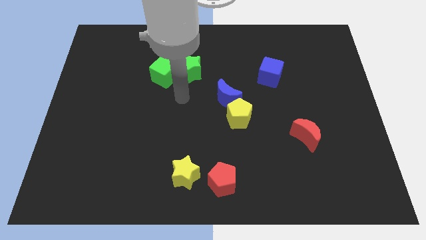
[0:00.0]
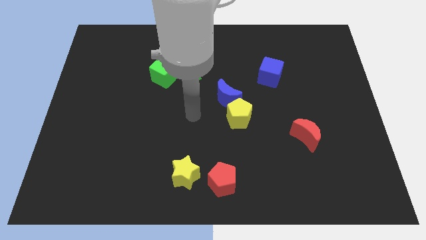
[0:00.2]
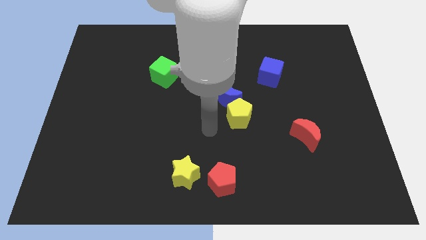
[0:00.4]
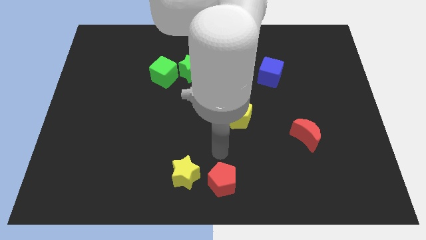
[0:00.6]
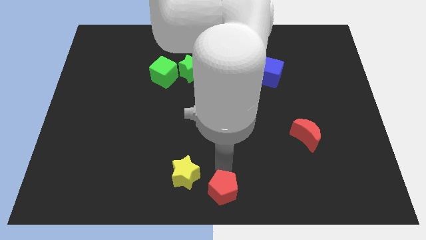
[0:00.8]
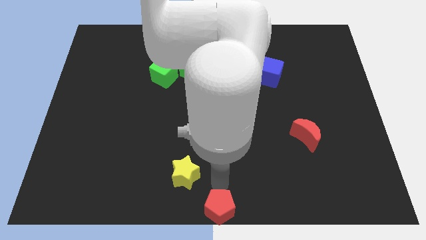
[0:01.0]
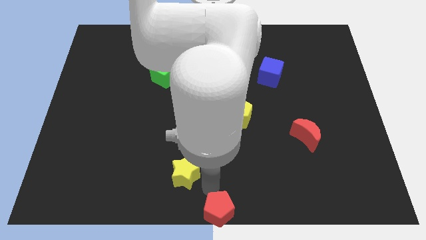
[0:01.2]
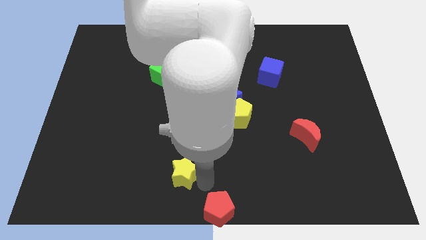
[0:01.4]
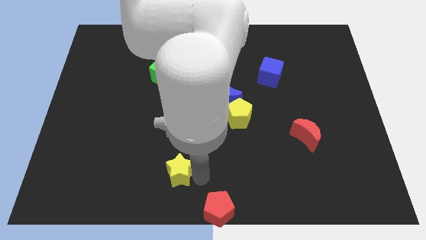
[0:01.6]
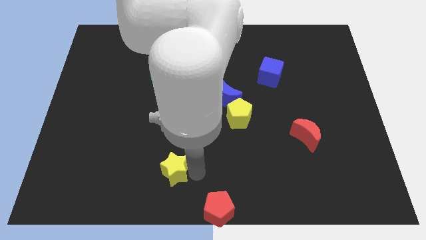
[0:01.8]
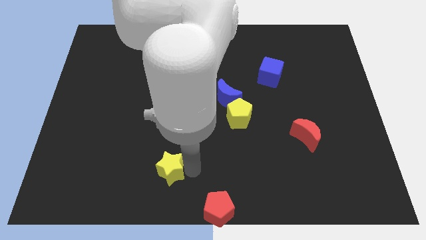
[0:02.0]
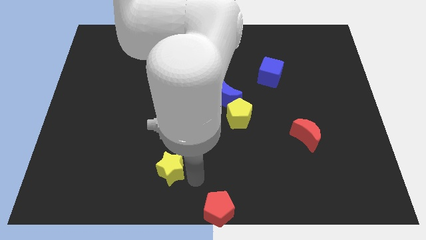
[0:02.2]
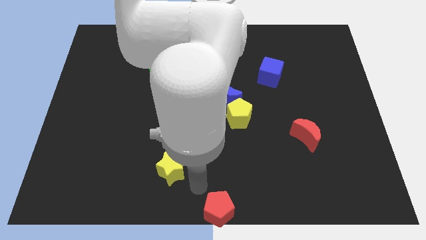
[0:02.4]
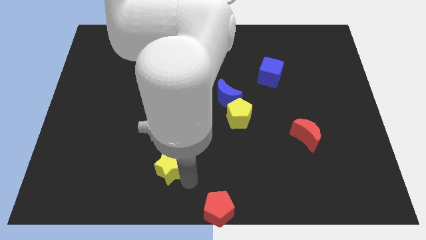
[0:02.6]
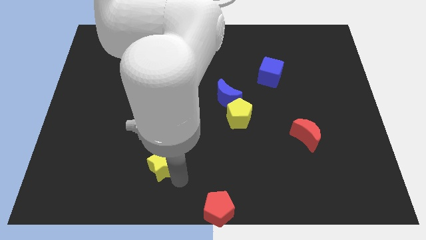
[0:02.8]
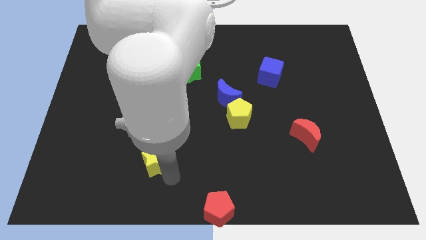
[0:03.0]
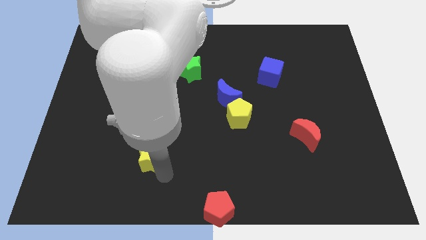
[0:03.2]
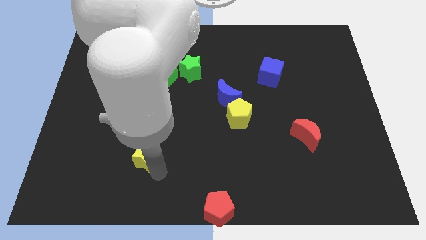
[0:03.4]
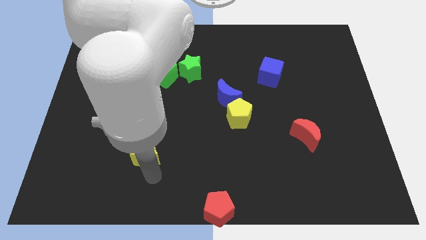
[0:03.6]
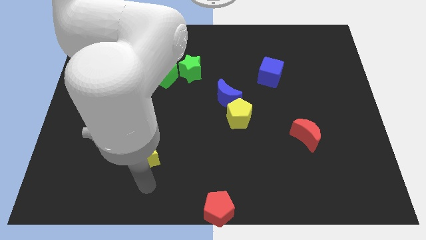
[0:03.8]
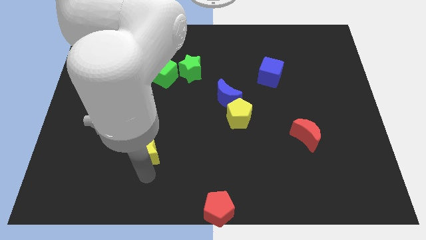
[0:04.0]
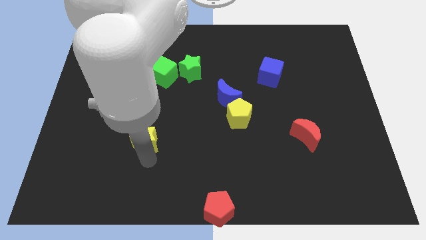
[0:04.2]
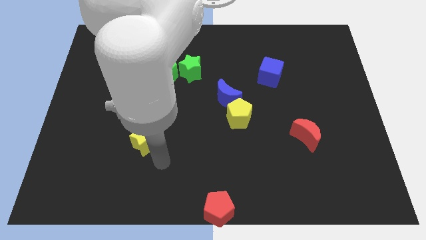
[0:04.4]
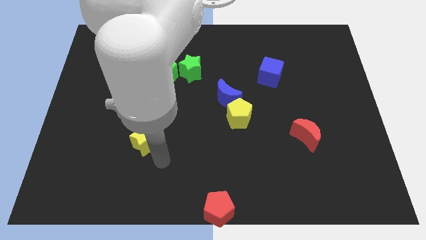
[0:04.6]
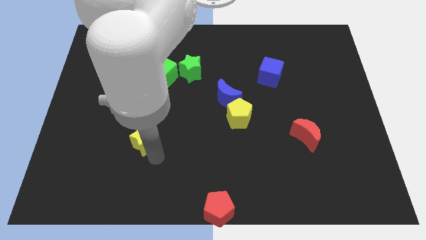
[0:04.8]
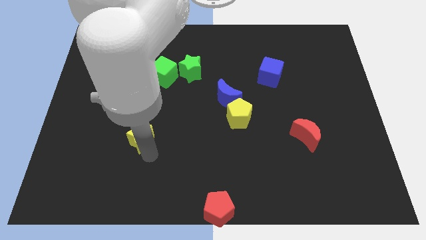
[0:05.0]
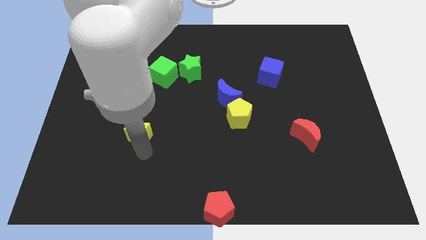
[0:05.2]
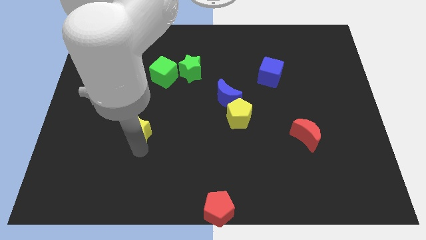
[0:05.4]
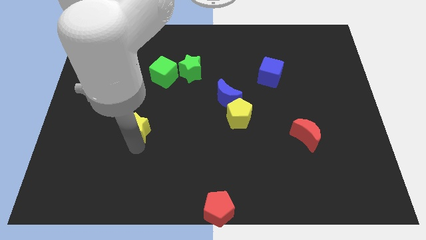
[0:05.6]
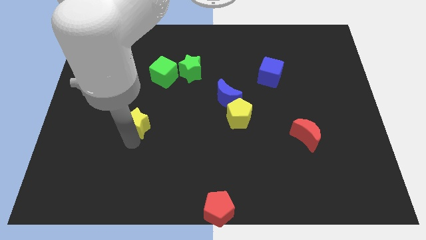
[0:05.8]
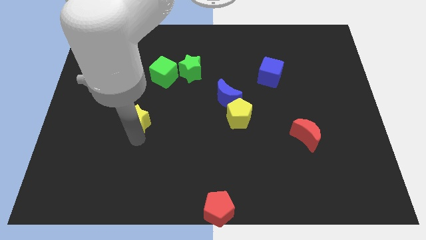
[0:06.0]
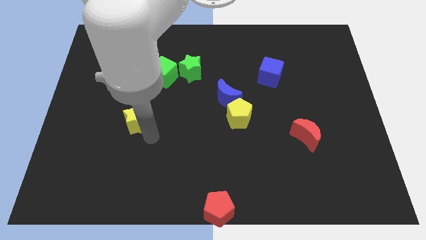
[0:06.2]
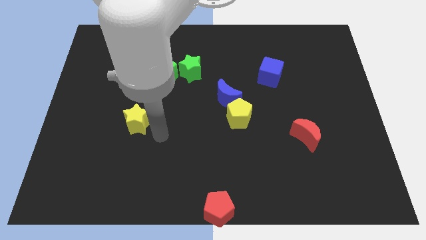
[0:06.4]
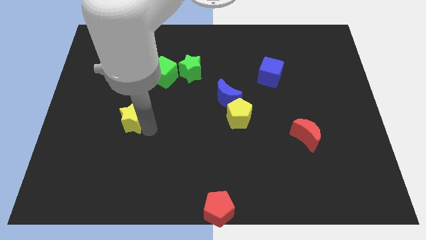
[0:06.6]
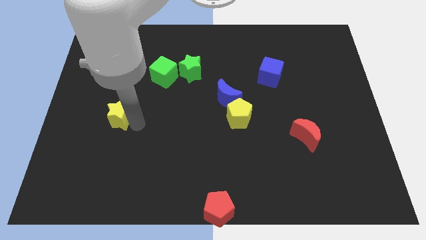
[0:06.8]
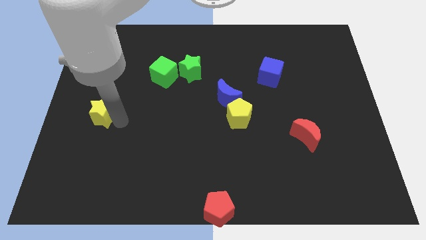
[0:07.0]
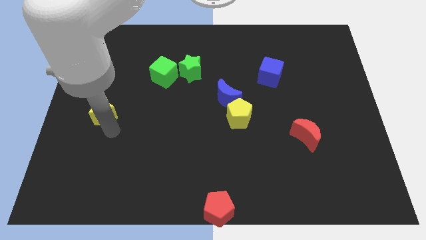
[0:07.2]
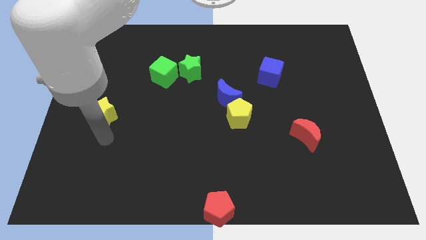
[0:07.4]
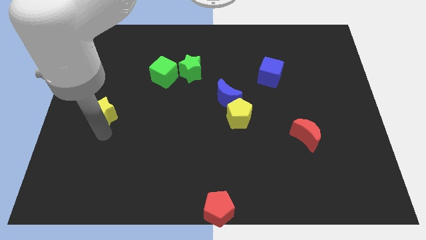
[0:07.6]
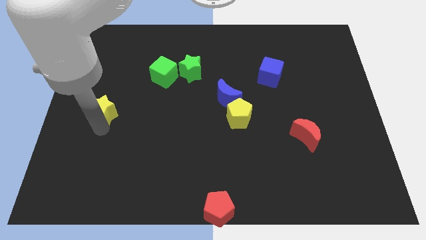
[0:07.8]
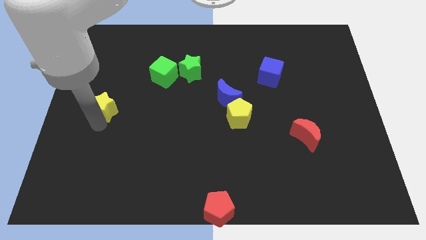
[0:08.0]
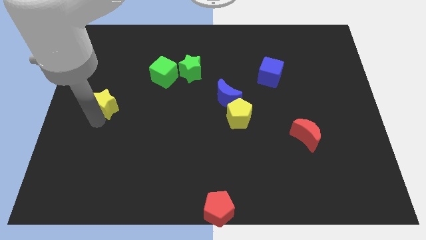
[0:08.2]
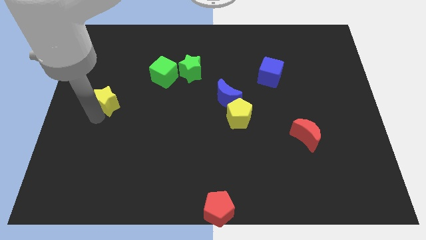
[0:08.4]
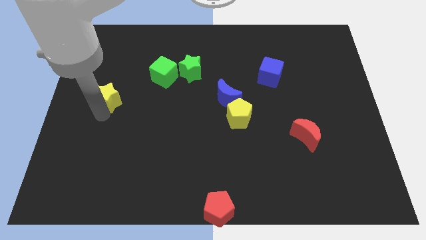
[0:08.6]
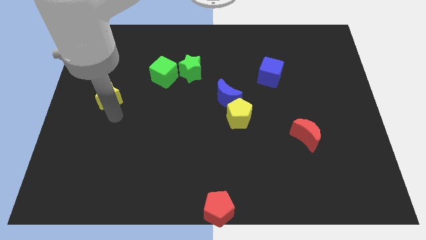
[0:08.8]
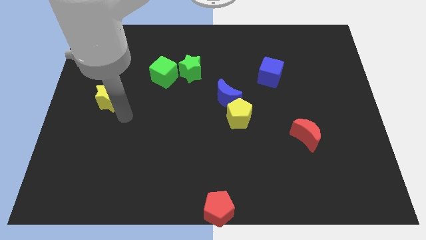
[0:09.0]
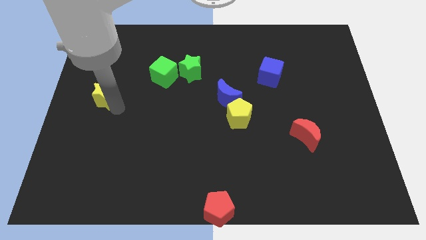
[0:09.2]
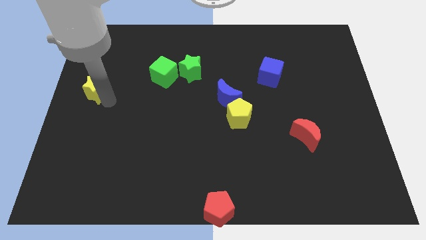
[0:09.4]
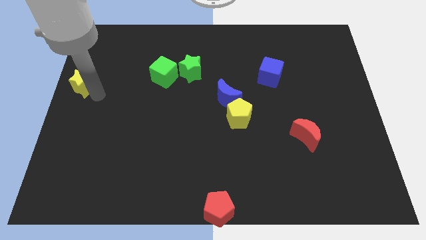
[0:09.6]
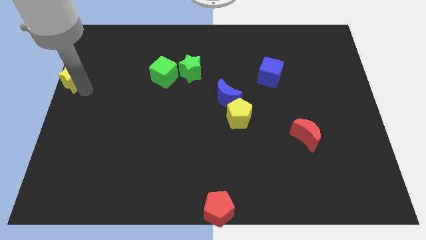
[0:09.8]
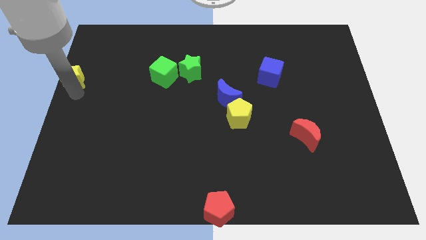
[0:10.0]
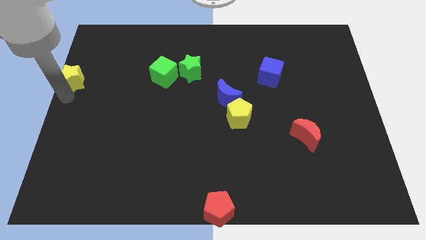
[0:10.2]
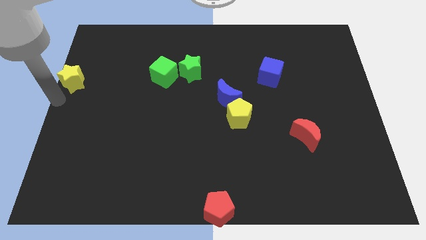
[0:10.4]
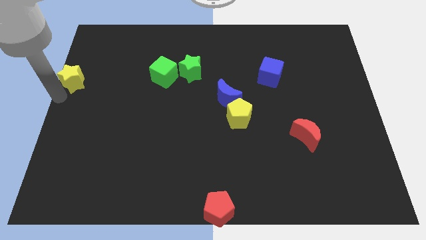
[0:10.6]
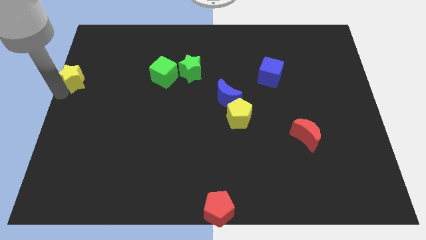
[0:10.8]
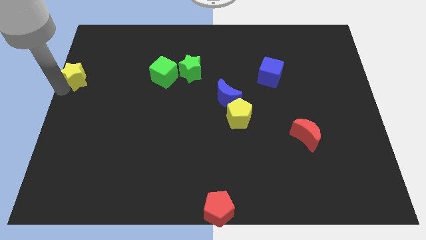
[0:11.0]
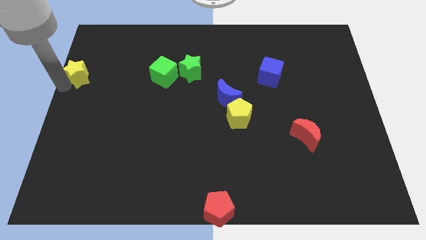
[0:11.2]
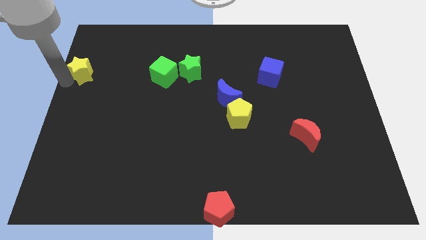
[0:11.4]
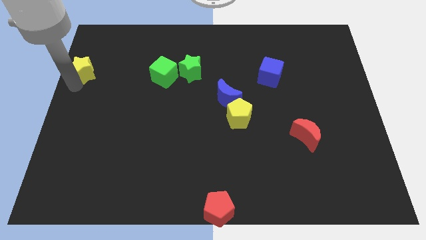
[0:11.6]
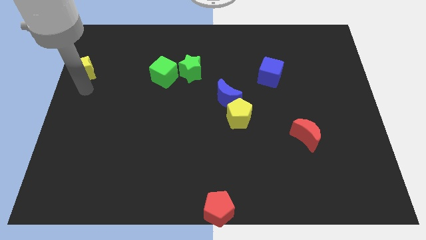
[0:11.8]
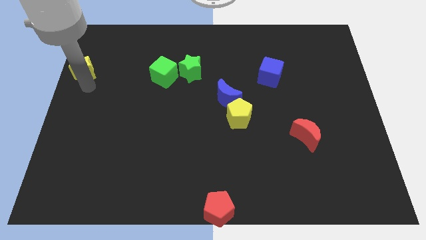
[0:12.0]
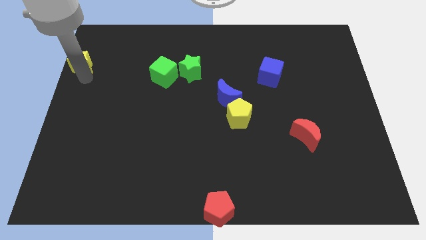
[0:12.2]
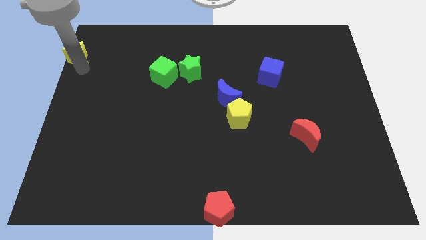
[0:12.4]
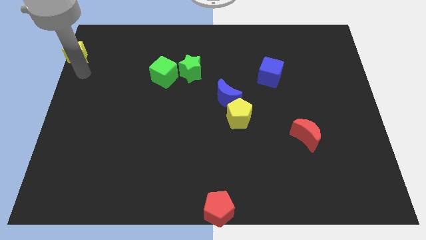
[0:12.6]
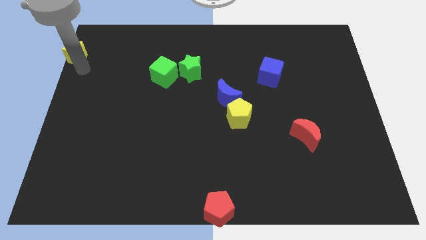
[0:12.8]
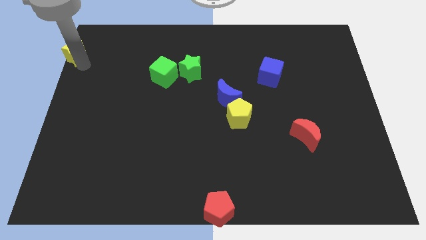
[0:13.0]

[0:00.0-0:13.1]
slide the yellow star to the upper left corner
